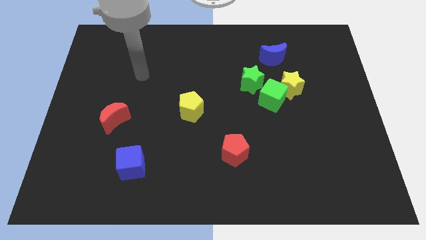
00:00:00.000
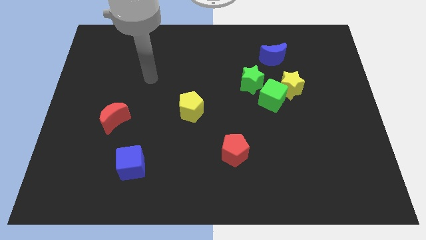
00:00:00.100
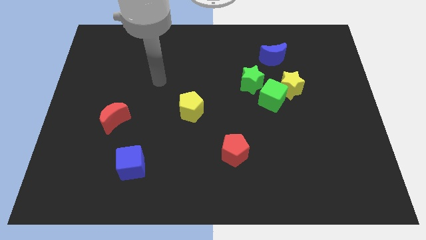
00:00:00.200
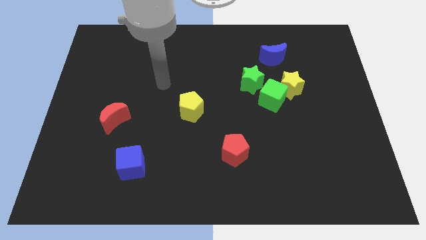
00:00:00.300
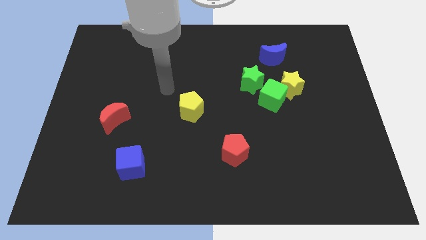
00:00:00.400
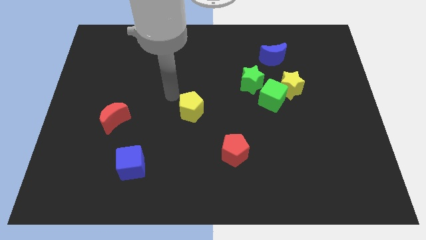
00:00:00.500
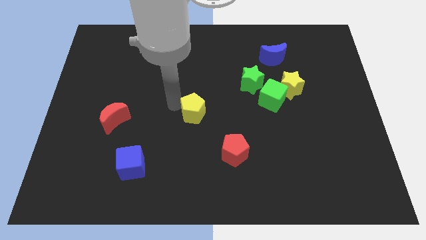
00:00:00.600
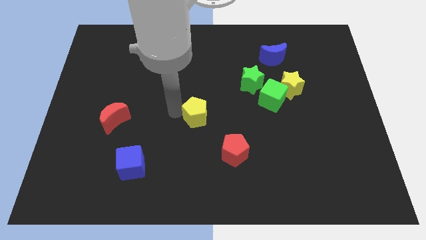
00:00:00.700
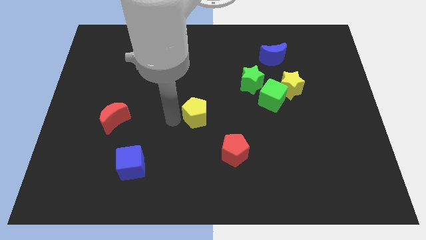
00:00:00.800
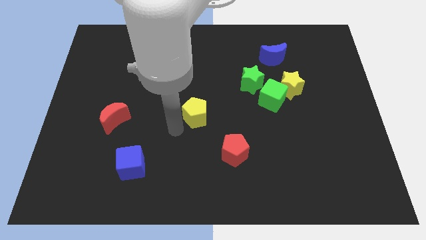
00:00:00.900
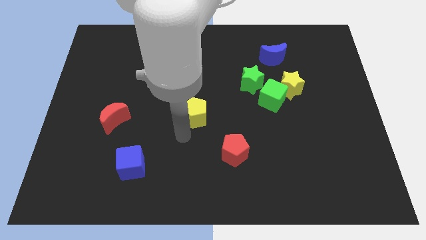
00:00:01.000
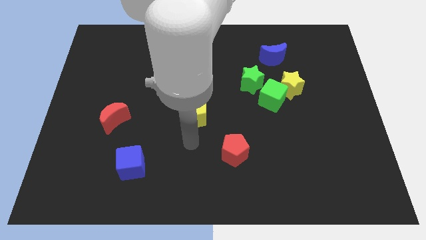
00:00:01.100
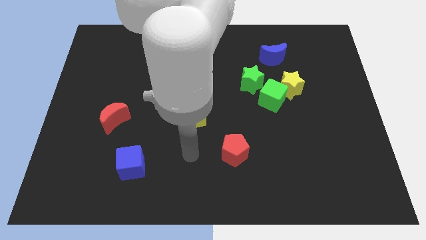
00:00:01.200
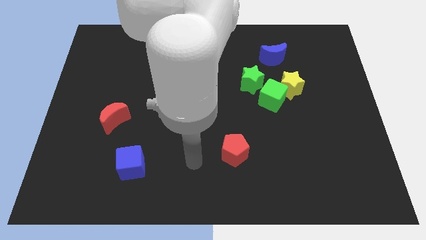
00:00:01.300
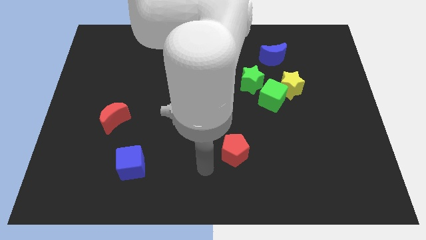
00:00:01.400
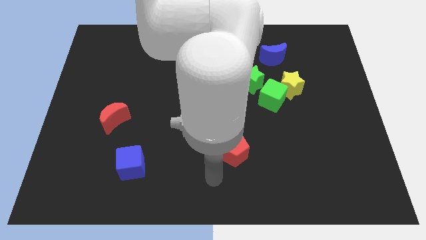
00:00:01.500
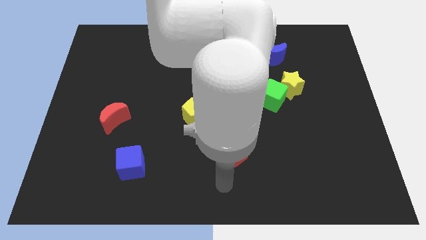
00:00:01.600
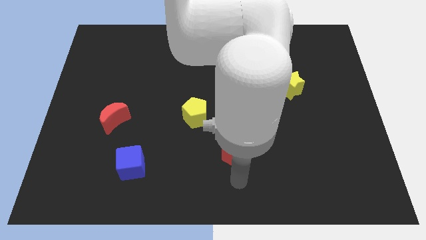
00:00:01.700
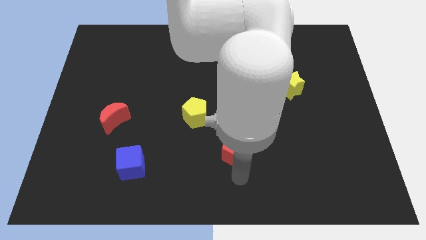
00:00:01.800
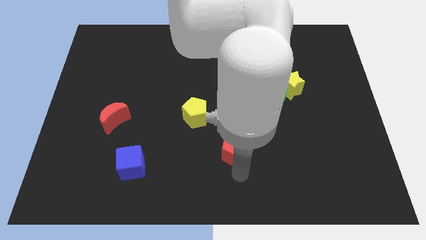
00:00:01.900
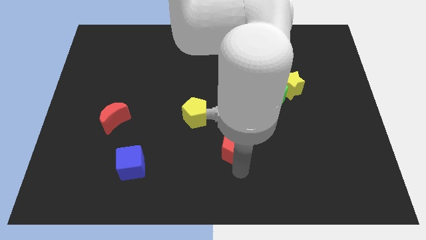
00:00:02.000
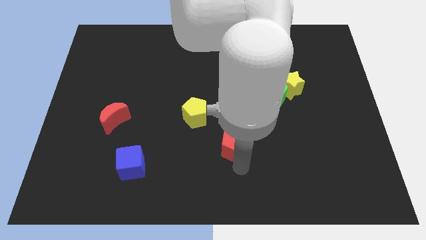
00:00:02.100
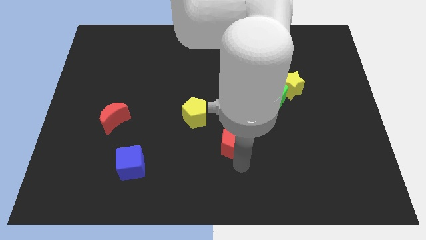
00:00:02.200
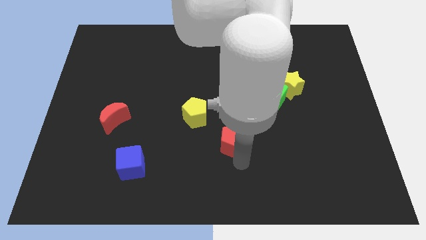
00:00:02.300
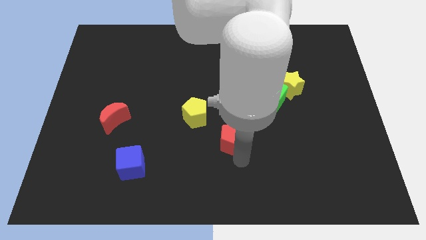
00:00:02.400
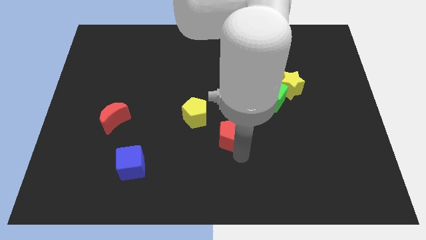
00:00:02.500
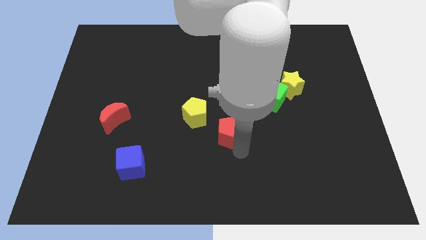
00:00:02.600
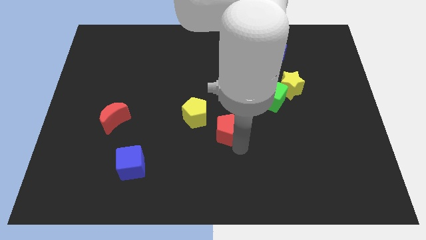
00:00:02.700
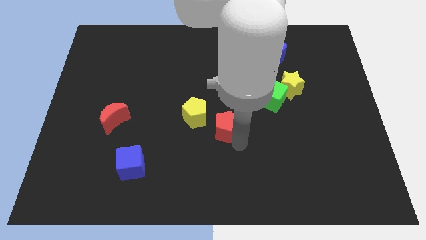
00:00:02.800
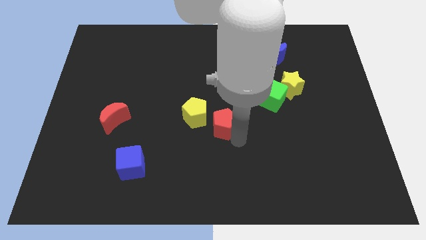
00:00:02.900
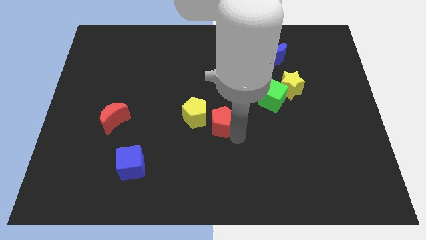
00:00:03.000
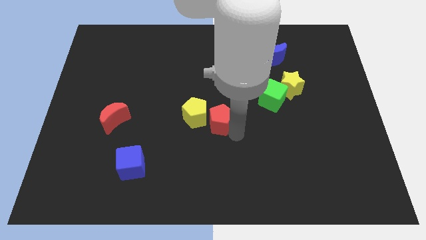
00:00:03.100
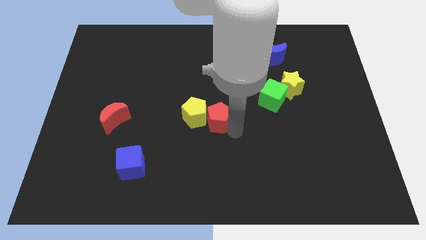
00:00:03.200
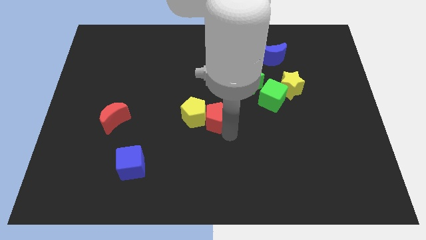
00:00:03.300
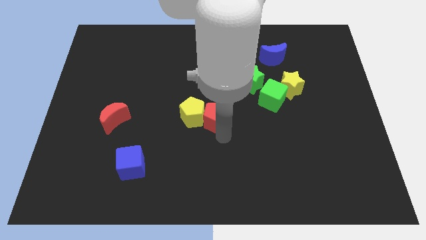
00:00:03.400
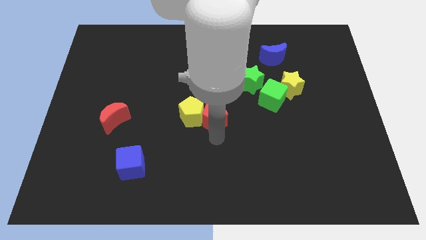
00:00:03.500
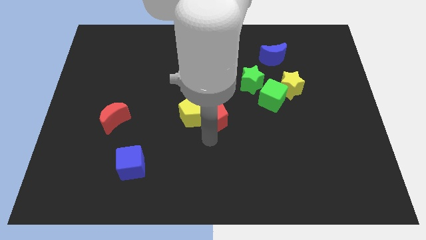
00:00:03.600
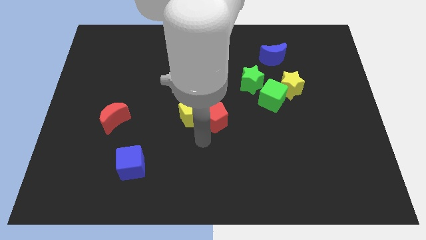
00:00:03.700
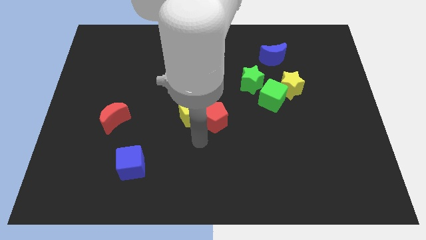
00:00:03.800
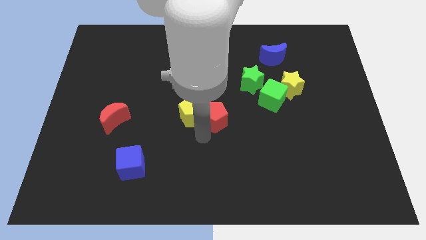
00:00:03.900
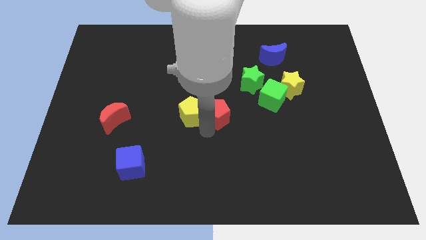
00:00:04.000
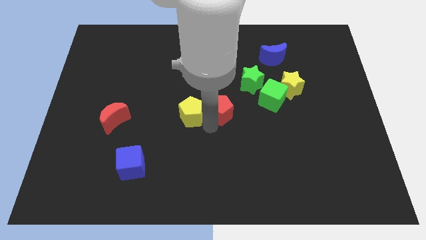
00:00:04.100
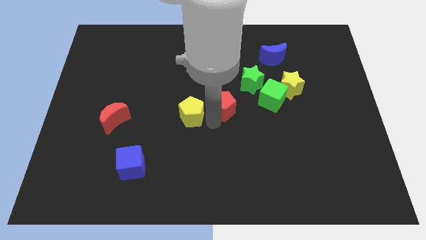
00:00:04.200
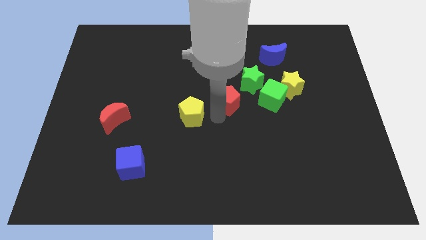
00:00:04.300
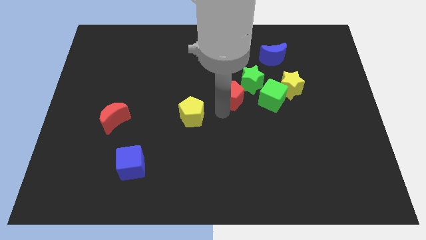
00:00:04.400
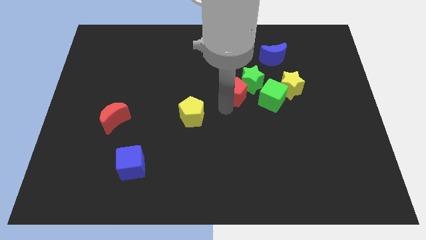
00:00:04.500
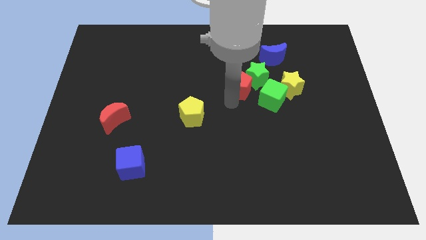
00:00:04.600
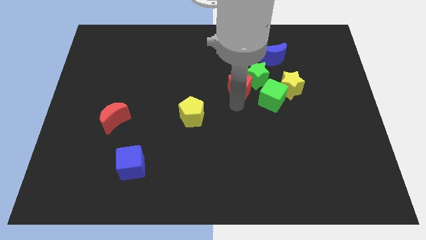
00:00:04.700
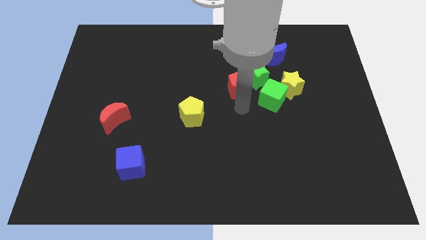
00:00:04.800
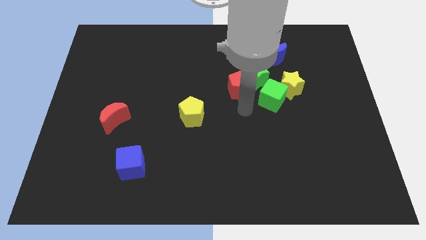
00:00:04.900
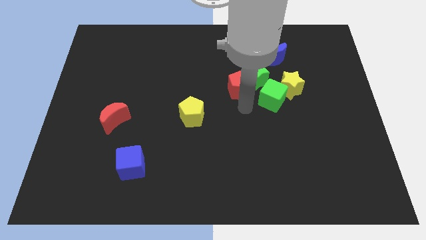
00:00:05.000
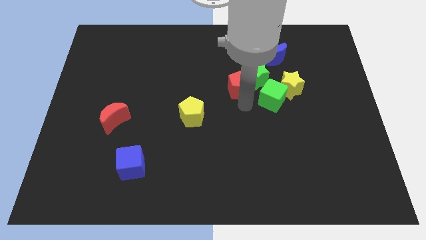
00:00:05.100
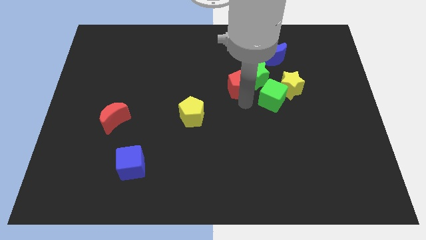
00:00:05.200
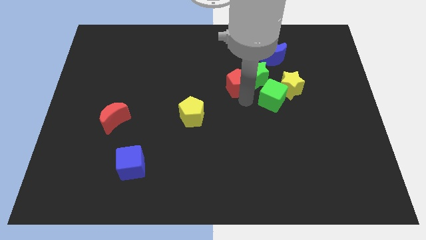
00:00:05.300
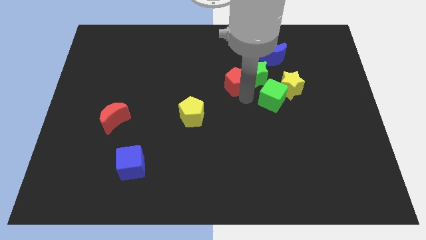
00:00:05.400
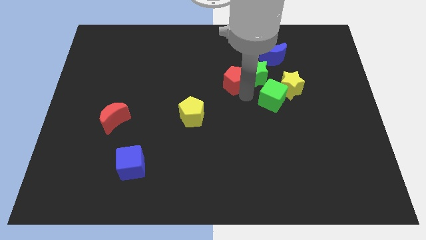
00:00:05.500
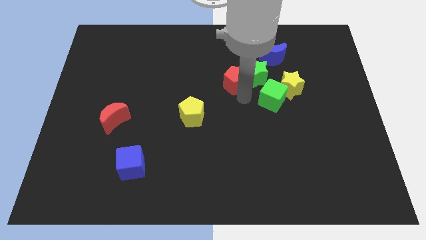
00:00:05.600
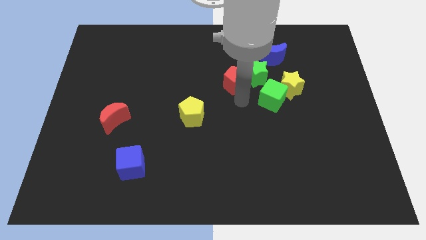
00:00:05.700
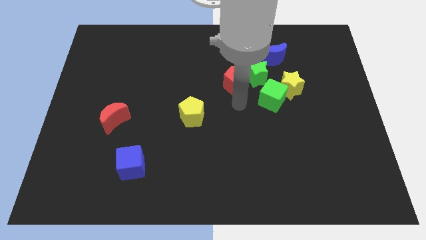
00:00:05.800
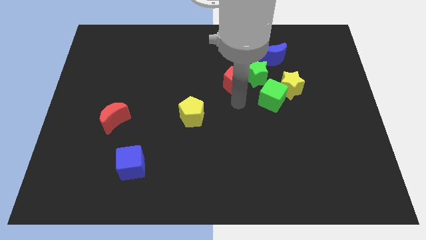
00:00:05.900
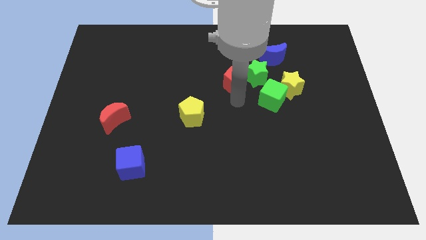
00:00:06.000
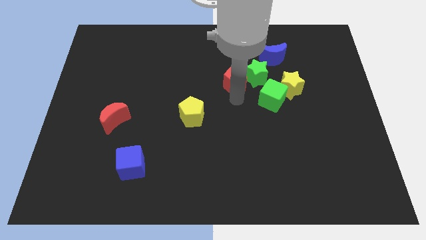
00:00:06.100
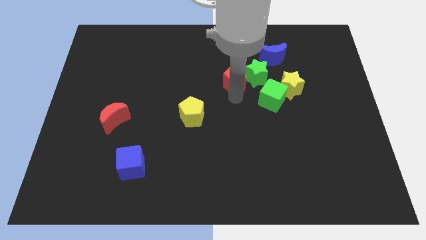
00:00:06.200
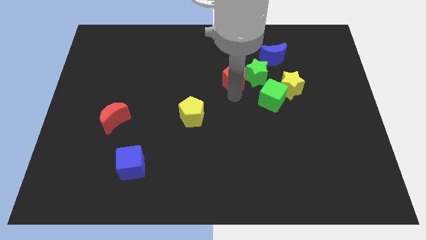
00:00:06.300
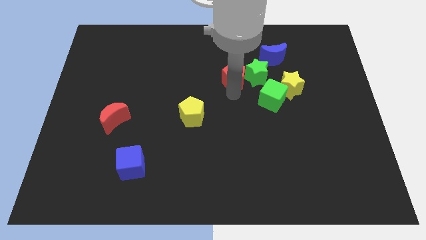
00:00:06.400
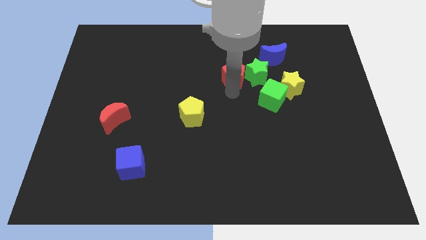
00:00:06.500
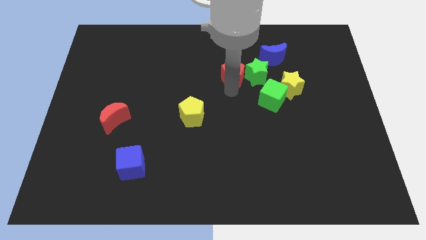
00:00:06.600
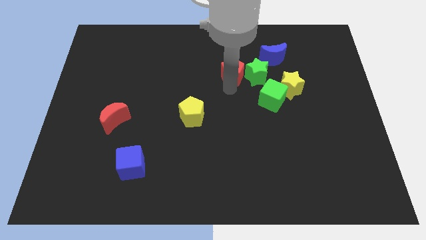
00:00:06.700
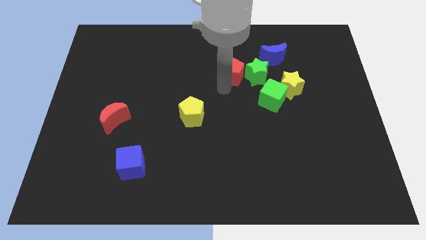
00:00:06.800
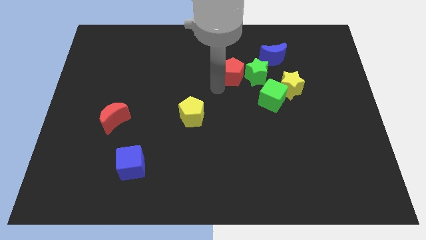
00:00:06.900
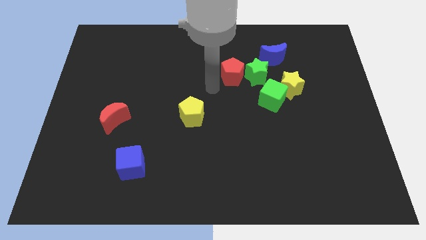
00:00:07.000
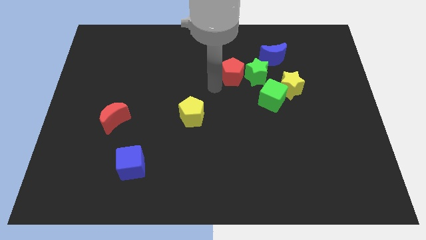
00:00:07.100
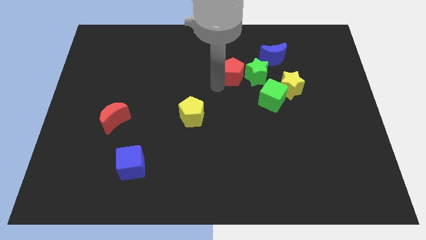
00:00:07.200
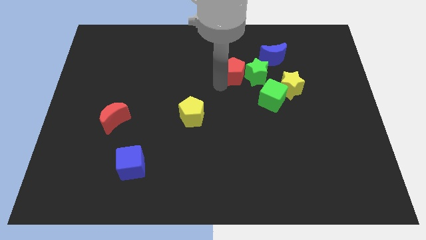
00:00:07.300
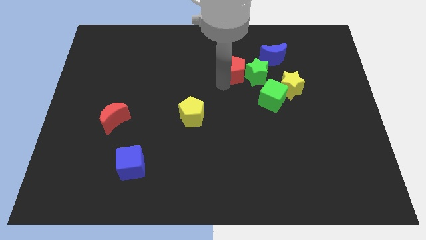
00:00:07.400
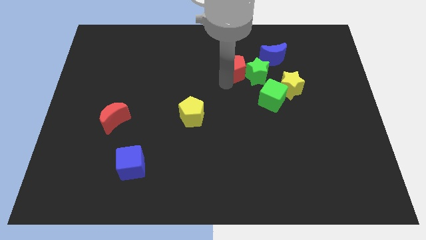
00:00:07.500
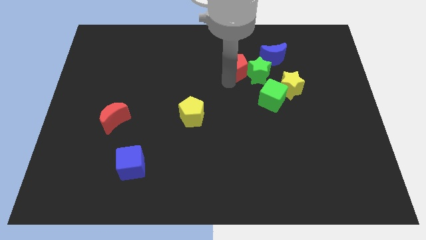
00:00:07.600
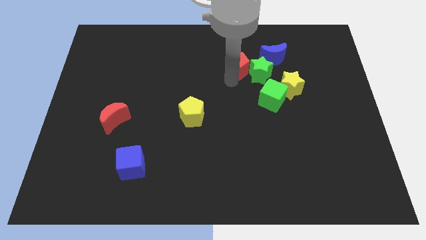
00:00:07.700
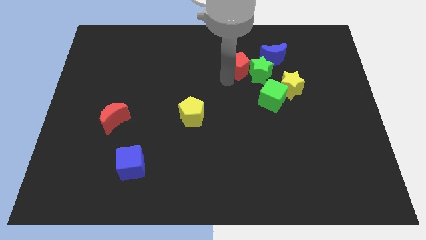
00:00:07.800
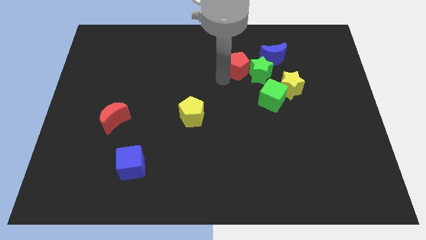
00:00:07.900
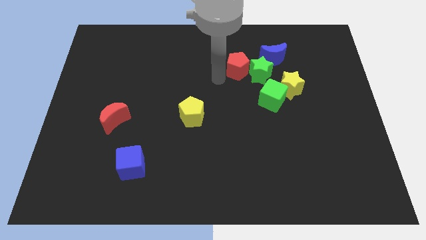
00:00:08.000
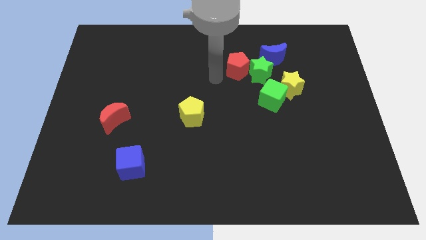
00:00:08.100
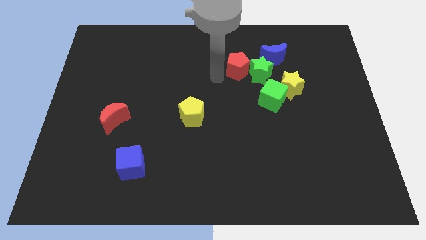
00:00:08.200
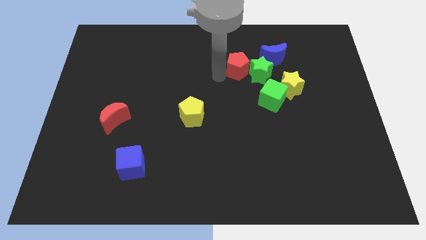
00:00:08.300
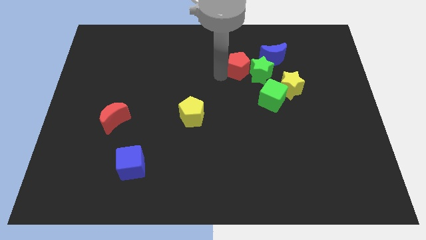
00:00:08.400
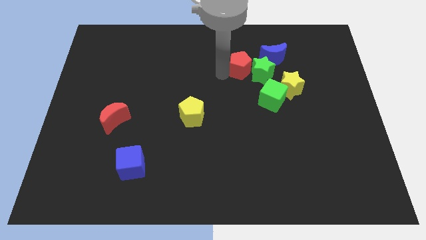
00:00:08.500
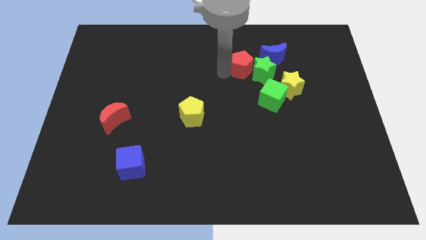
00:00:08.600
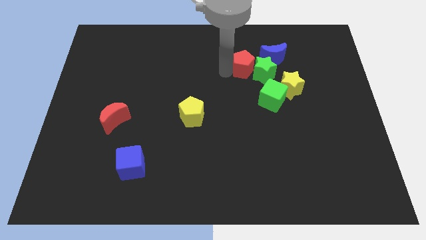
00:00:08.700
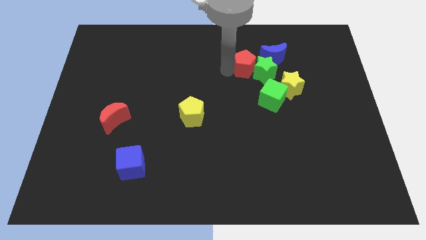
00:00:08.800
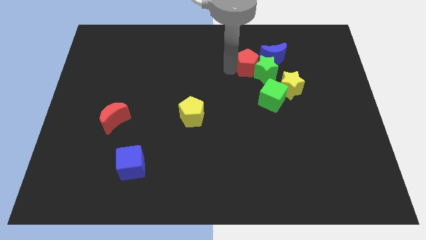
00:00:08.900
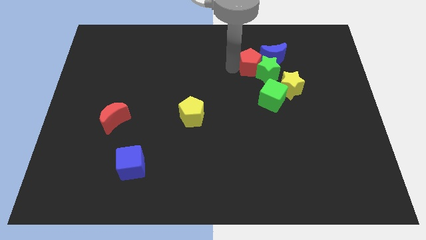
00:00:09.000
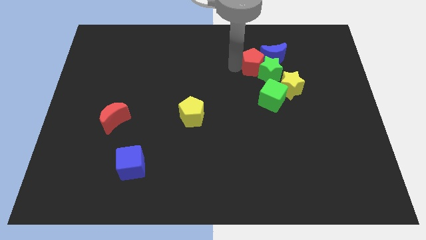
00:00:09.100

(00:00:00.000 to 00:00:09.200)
push the red pentagon towards the blue moon
